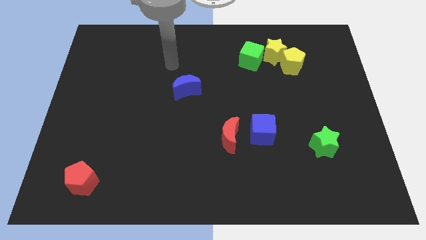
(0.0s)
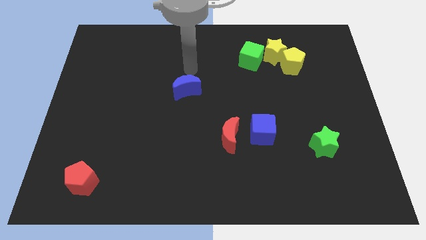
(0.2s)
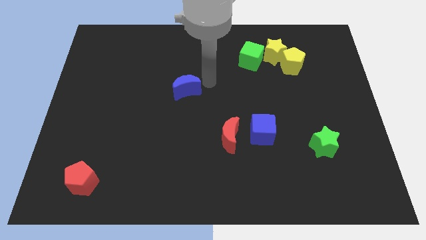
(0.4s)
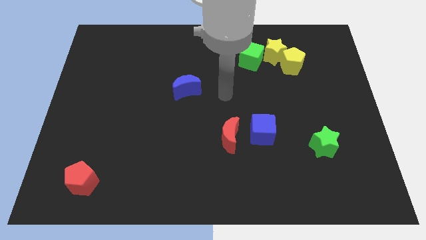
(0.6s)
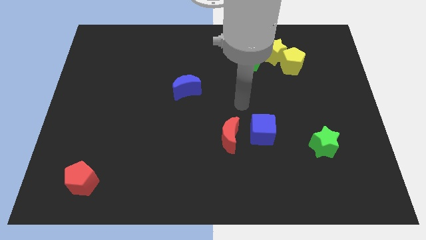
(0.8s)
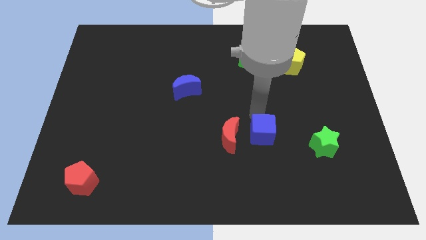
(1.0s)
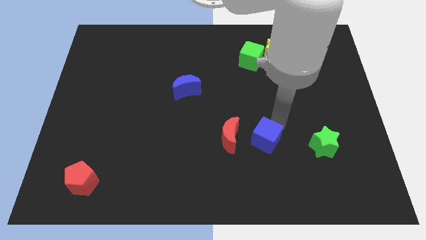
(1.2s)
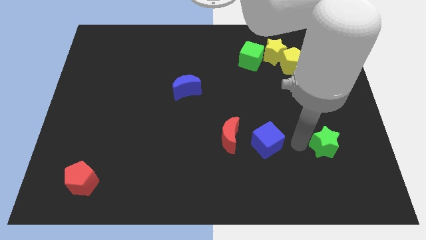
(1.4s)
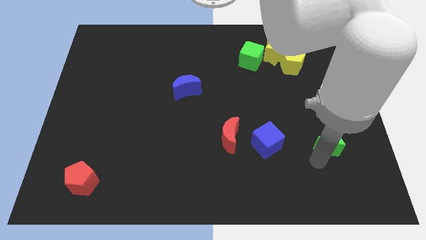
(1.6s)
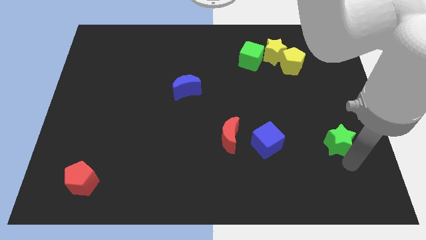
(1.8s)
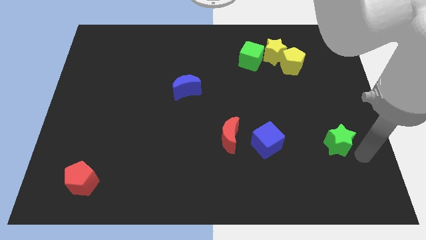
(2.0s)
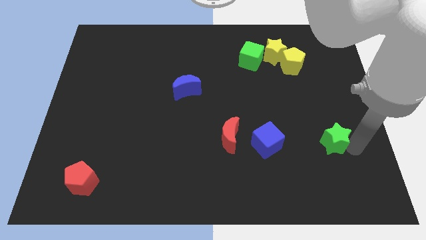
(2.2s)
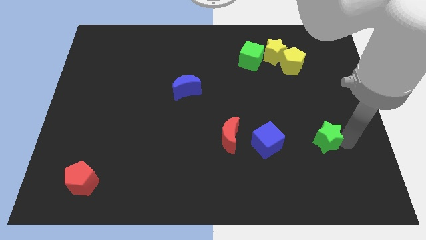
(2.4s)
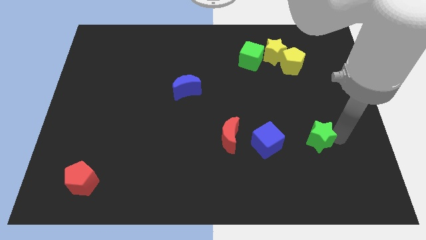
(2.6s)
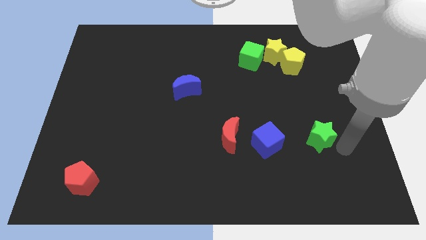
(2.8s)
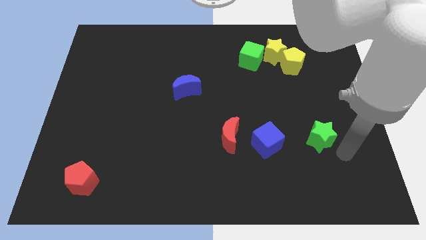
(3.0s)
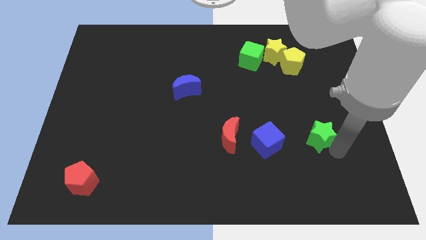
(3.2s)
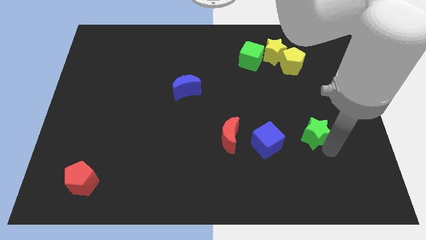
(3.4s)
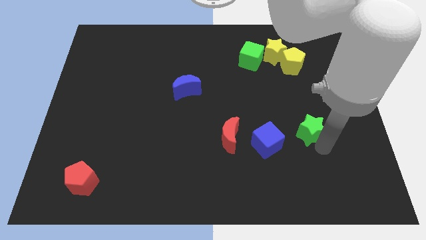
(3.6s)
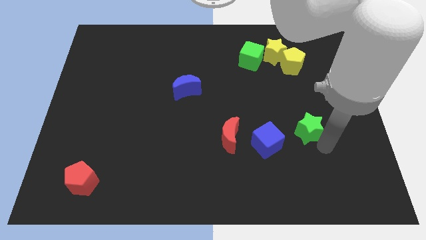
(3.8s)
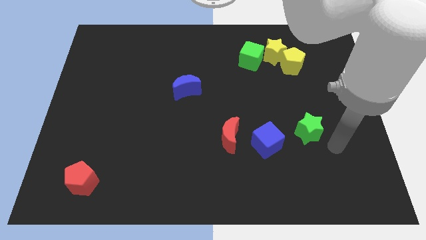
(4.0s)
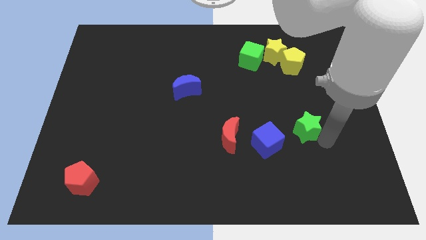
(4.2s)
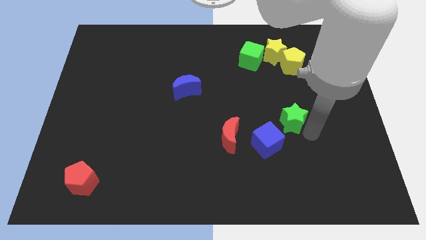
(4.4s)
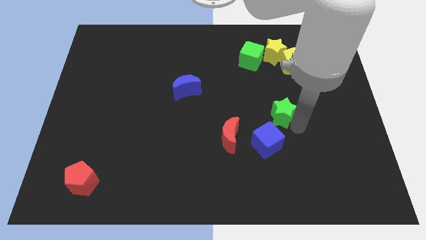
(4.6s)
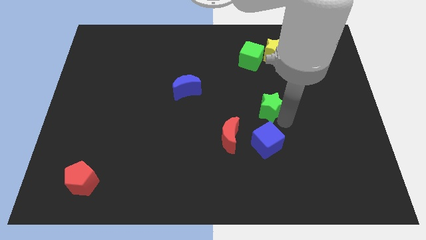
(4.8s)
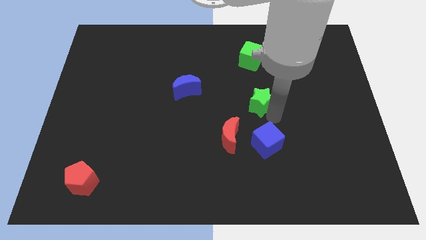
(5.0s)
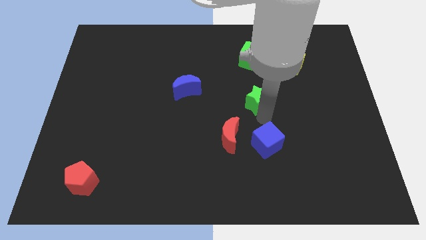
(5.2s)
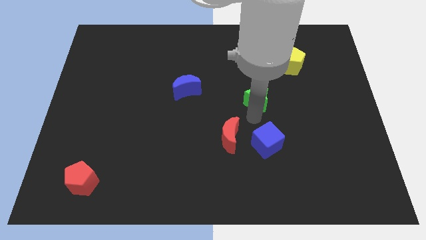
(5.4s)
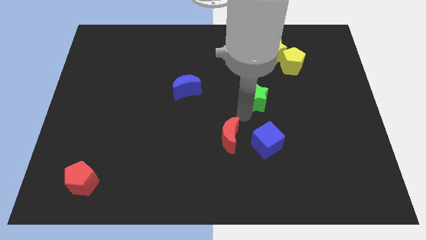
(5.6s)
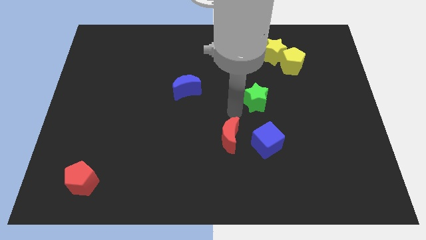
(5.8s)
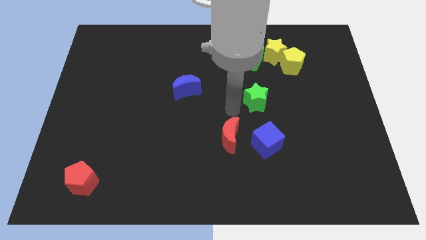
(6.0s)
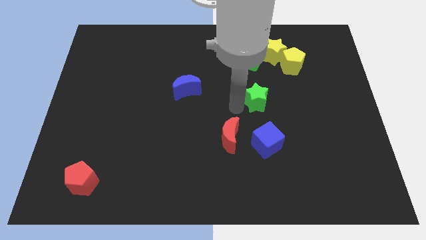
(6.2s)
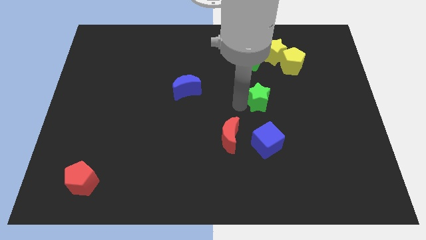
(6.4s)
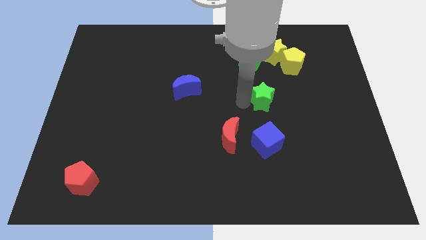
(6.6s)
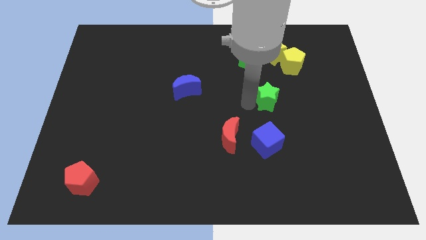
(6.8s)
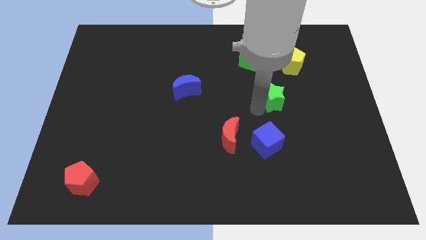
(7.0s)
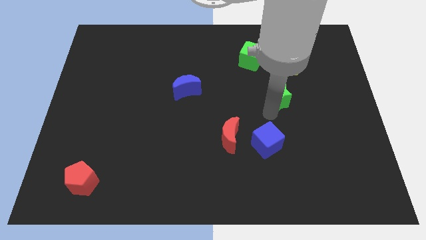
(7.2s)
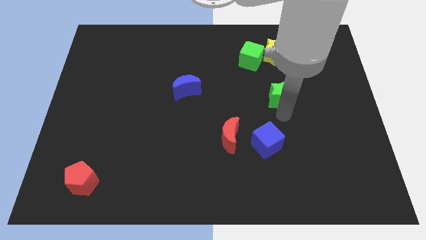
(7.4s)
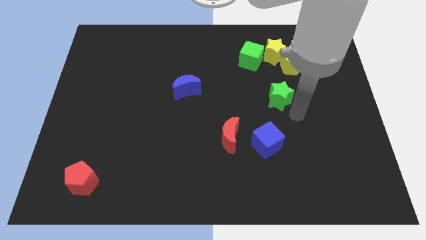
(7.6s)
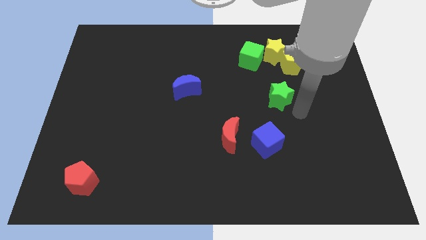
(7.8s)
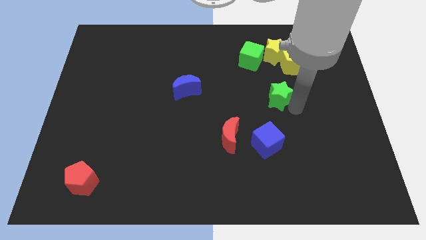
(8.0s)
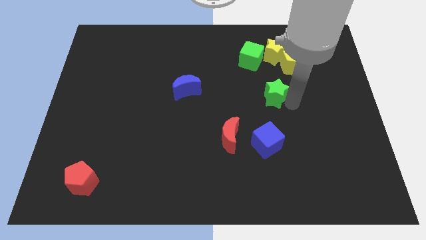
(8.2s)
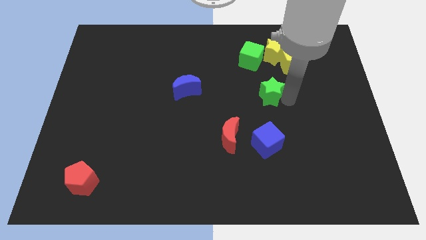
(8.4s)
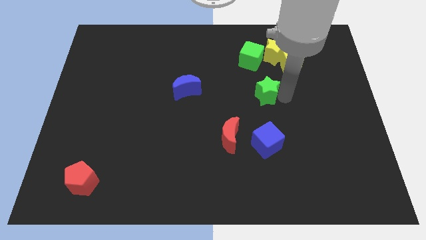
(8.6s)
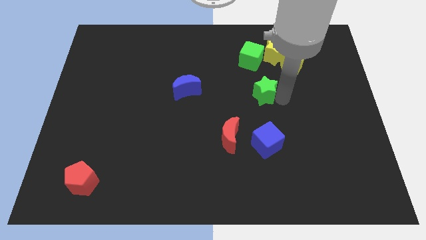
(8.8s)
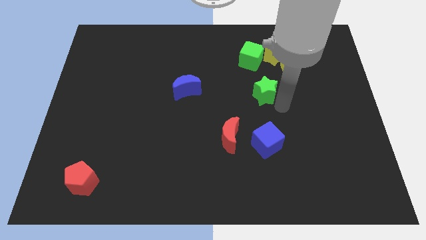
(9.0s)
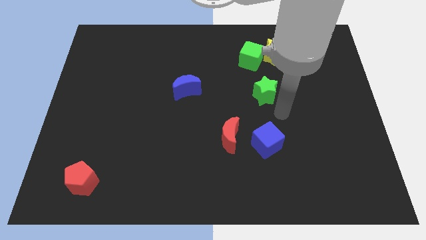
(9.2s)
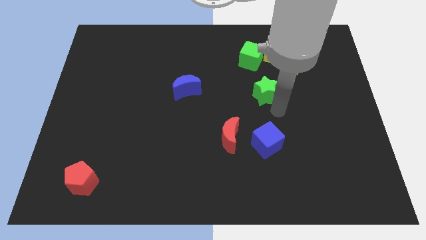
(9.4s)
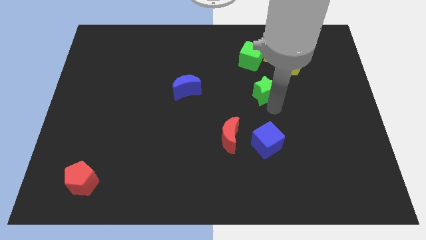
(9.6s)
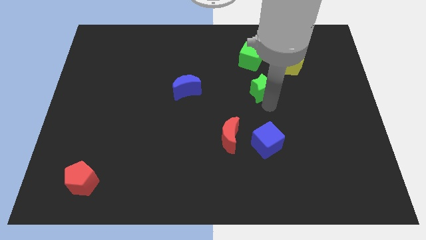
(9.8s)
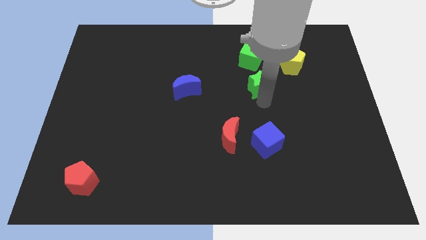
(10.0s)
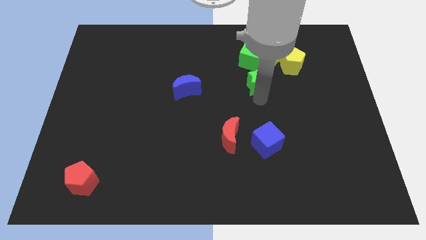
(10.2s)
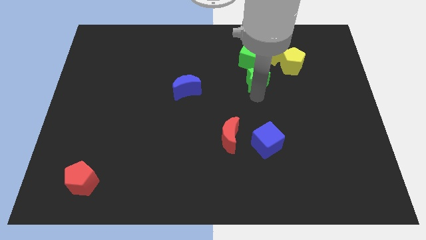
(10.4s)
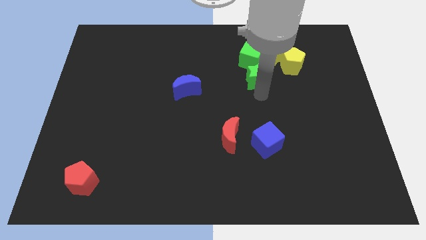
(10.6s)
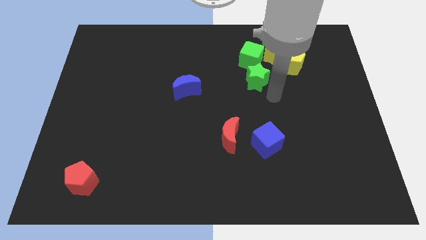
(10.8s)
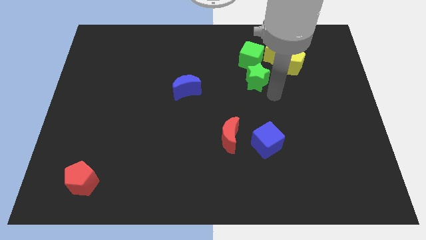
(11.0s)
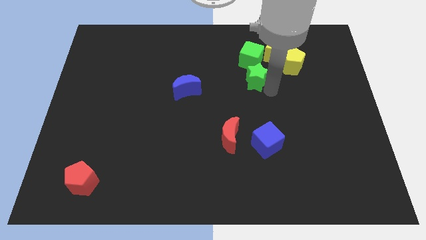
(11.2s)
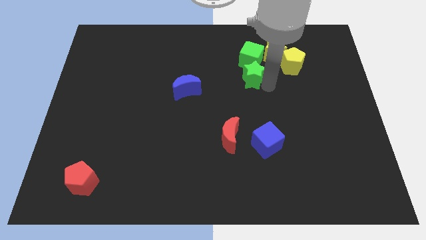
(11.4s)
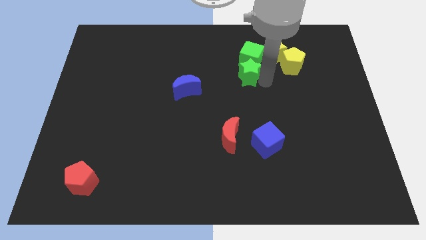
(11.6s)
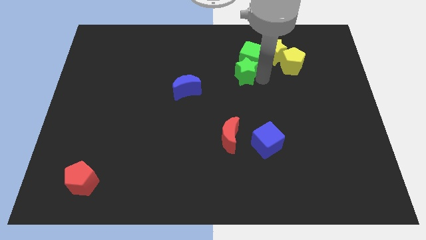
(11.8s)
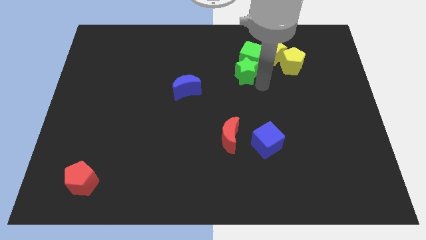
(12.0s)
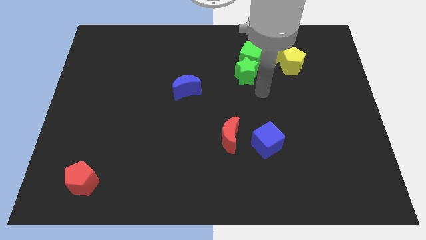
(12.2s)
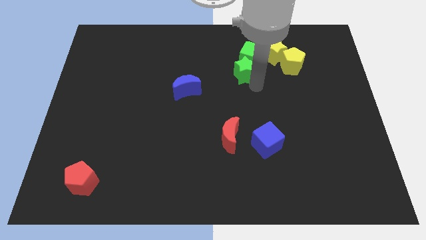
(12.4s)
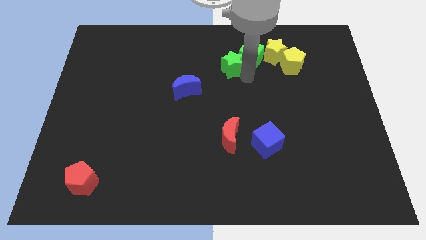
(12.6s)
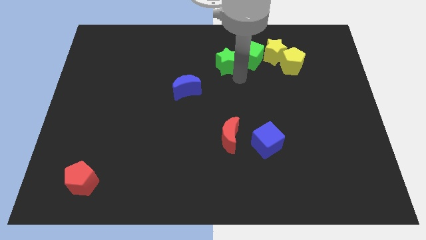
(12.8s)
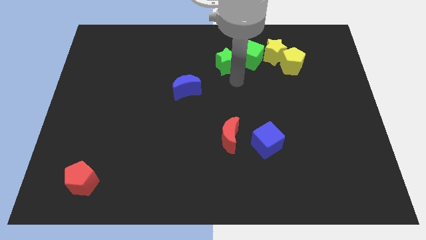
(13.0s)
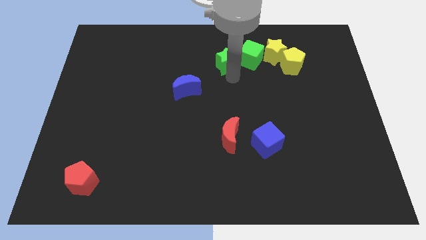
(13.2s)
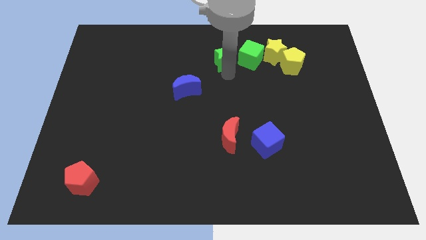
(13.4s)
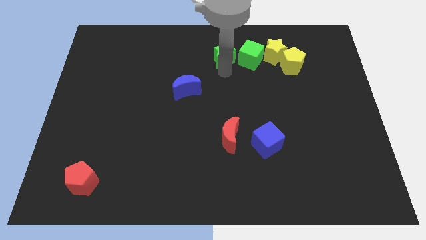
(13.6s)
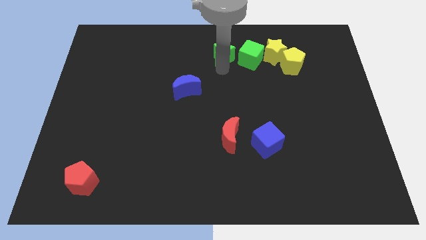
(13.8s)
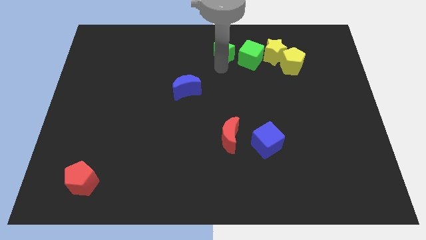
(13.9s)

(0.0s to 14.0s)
move the green star to the top
